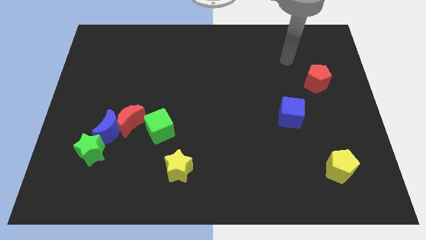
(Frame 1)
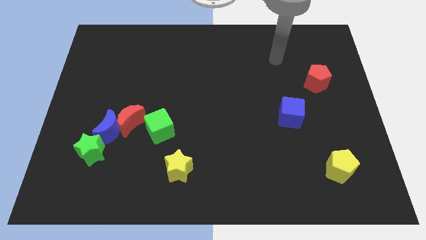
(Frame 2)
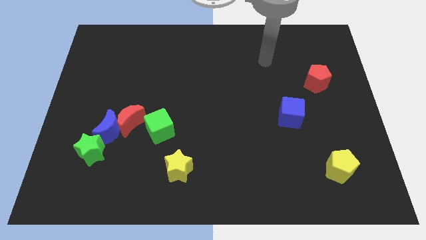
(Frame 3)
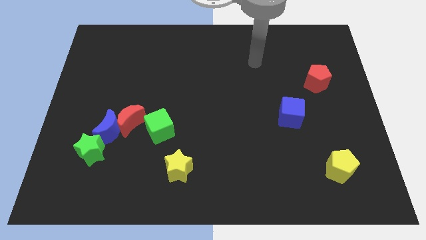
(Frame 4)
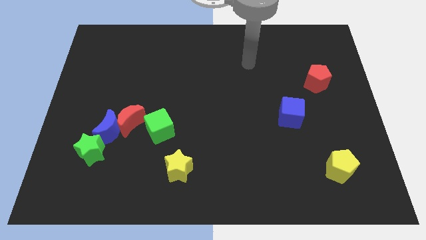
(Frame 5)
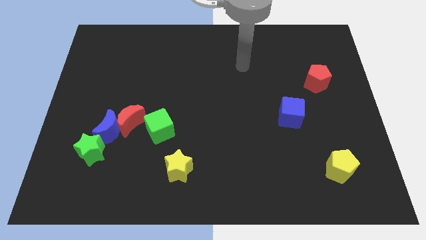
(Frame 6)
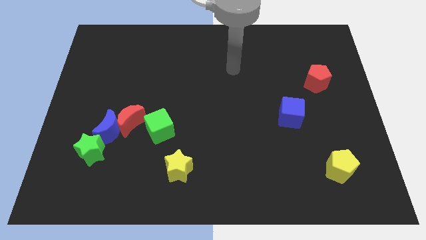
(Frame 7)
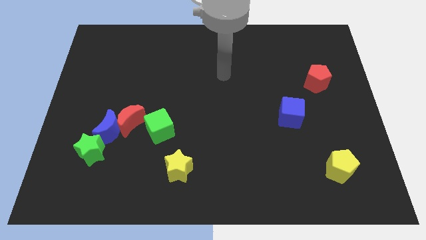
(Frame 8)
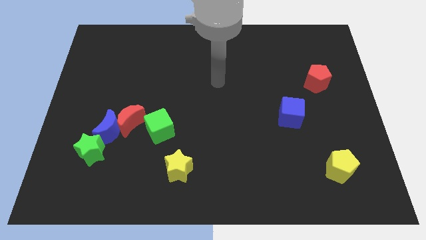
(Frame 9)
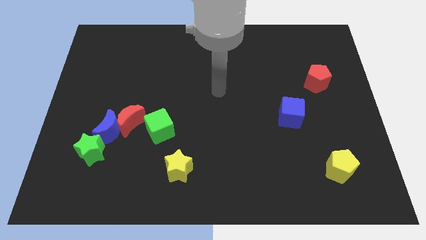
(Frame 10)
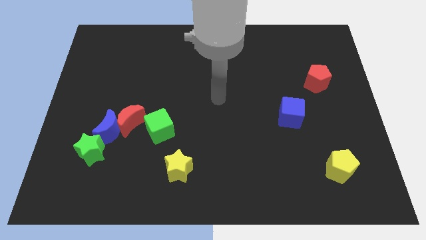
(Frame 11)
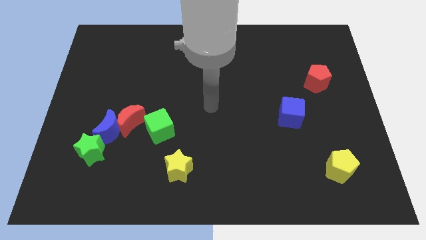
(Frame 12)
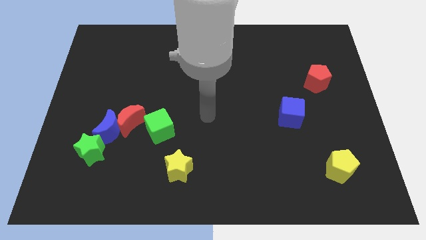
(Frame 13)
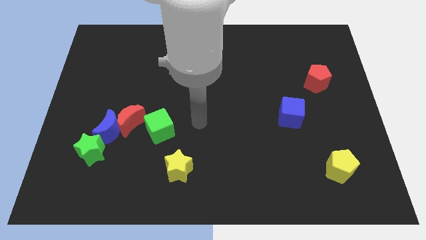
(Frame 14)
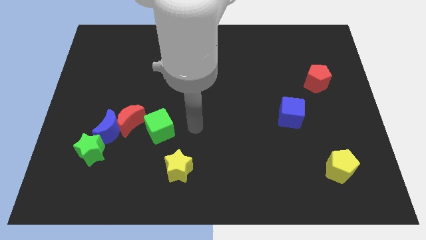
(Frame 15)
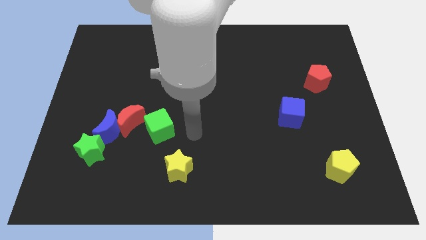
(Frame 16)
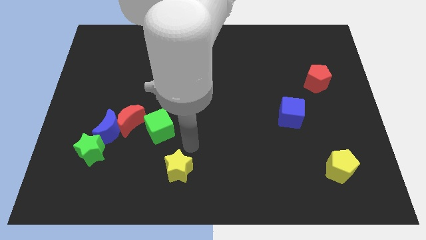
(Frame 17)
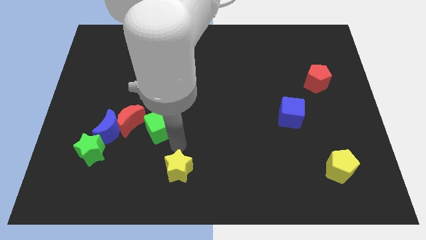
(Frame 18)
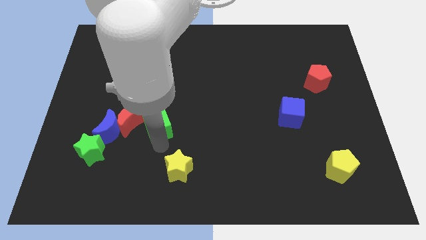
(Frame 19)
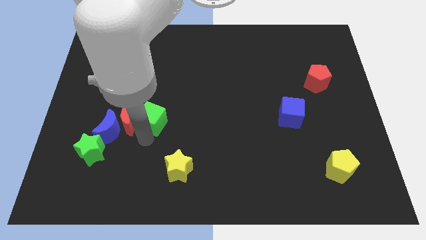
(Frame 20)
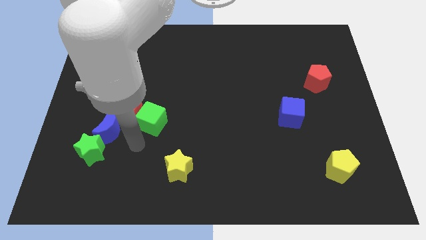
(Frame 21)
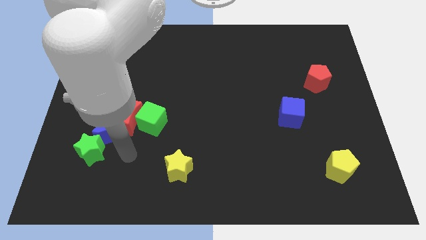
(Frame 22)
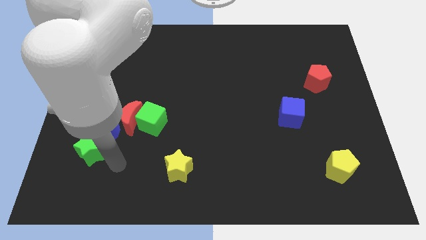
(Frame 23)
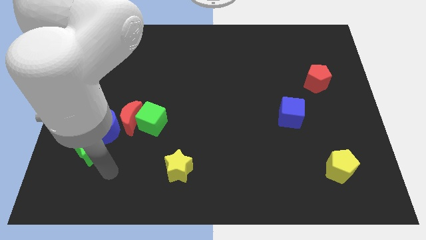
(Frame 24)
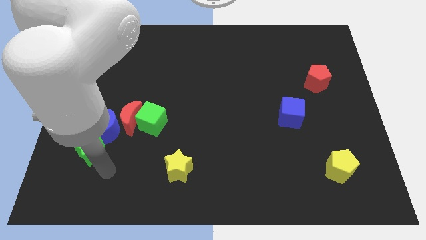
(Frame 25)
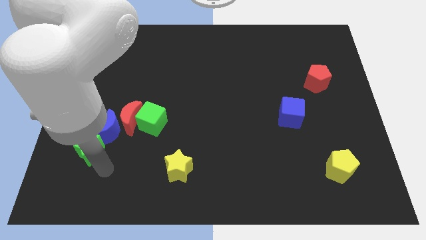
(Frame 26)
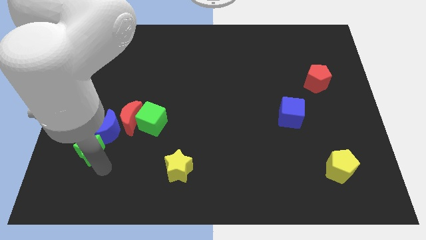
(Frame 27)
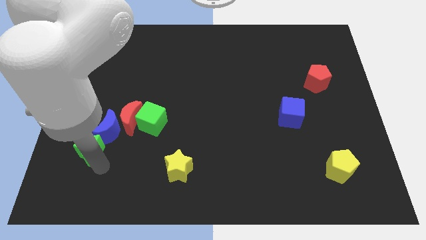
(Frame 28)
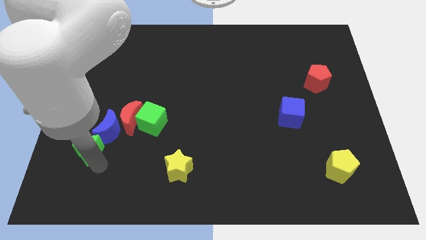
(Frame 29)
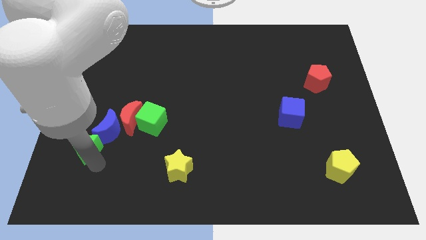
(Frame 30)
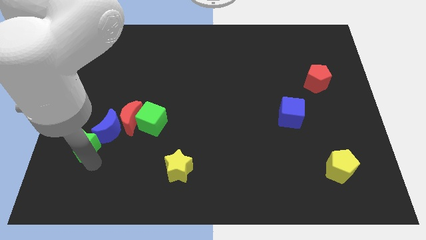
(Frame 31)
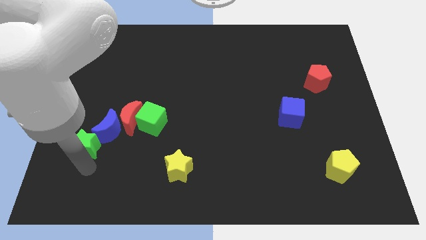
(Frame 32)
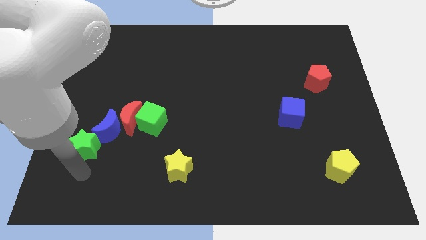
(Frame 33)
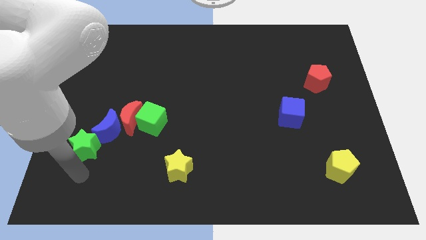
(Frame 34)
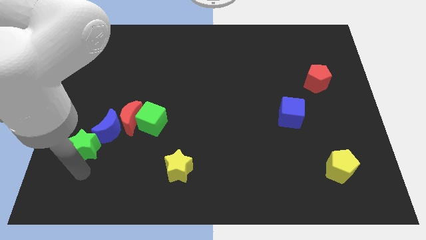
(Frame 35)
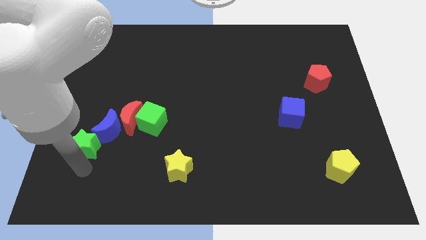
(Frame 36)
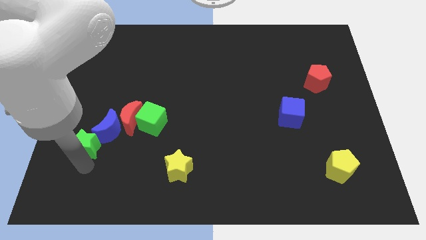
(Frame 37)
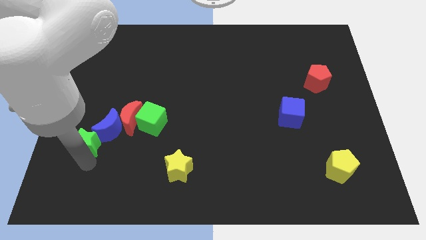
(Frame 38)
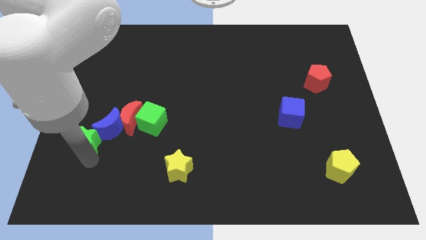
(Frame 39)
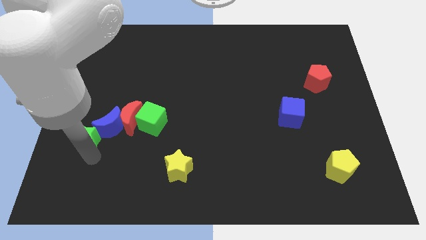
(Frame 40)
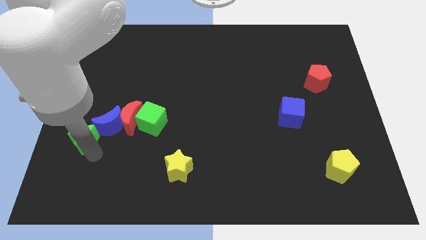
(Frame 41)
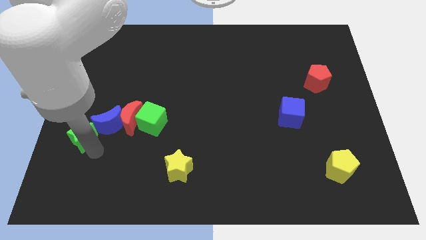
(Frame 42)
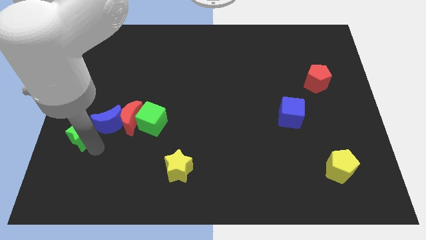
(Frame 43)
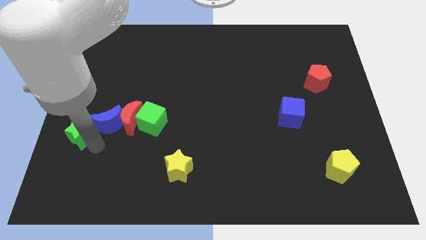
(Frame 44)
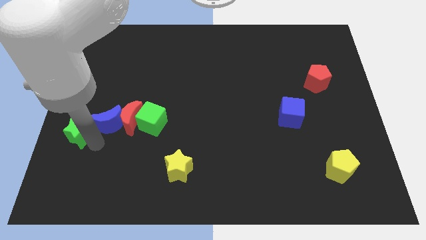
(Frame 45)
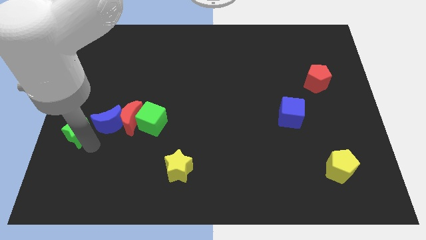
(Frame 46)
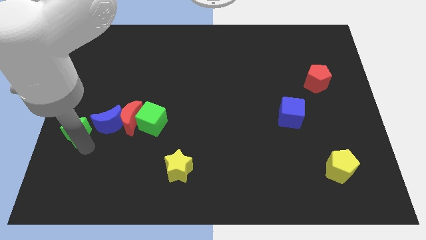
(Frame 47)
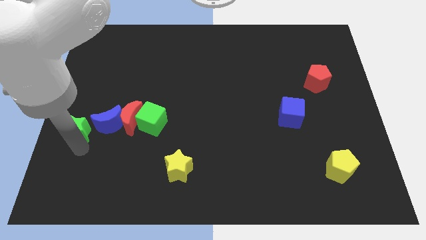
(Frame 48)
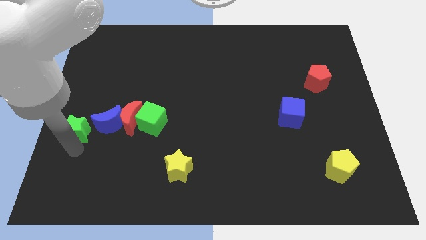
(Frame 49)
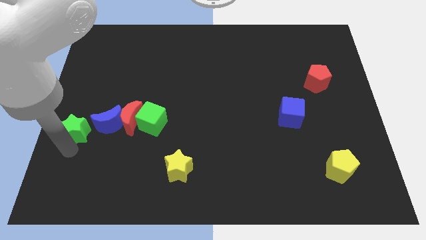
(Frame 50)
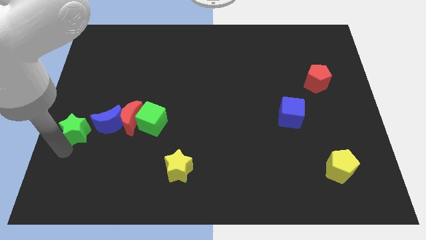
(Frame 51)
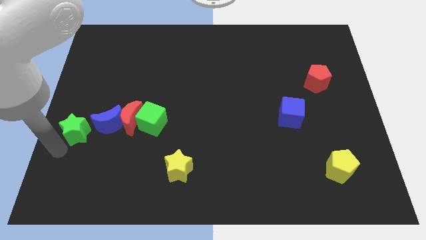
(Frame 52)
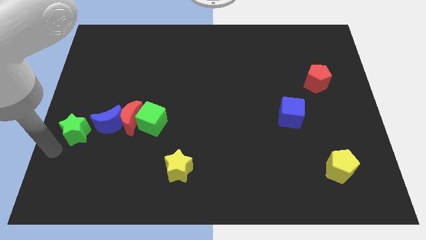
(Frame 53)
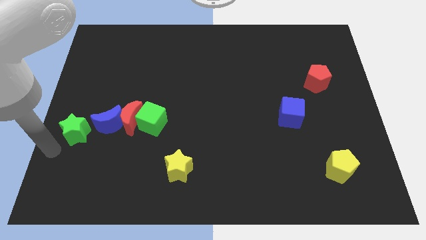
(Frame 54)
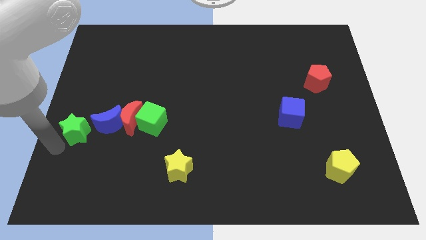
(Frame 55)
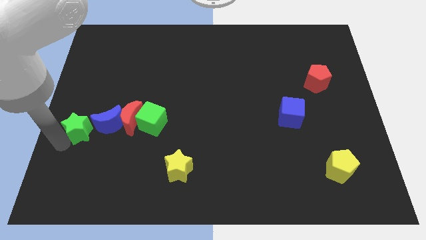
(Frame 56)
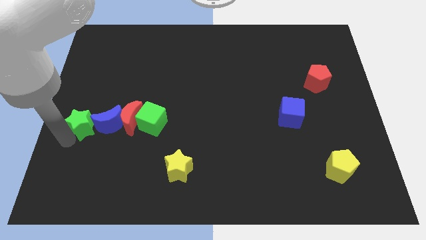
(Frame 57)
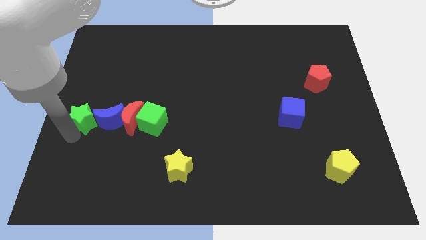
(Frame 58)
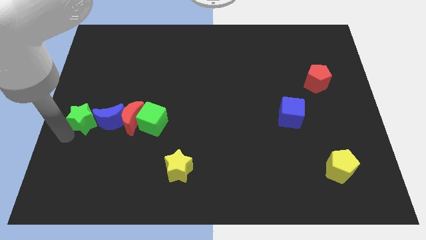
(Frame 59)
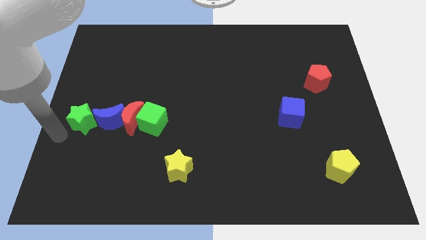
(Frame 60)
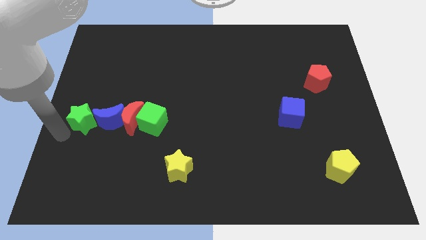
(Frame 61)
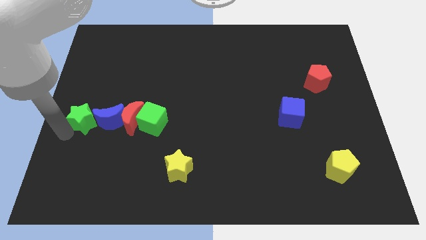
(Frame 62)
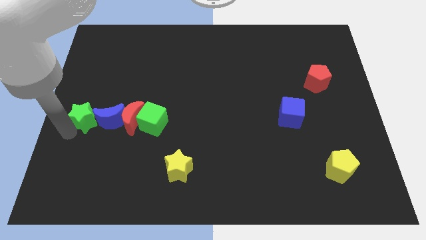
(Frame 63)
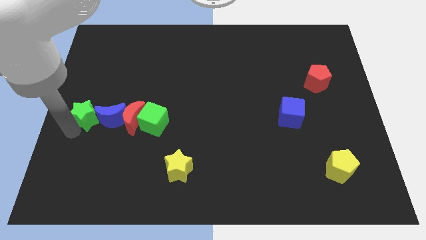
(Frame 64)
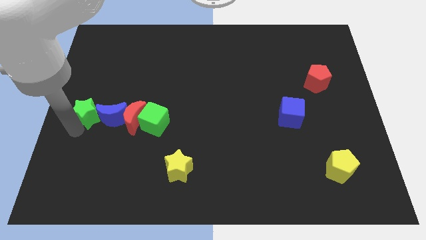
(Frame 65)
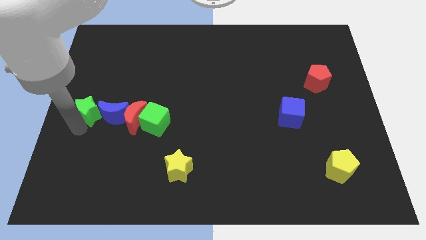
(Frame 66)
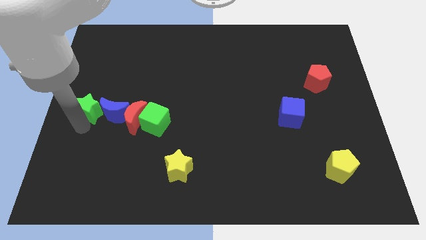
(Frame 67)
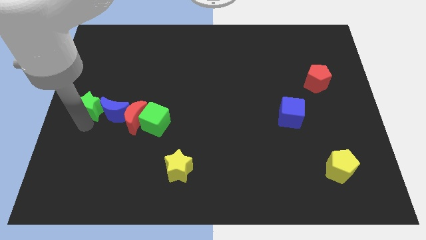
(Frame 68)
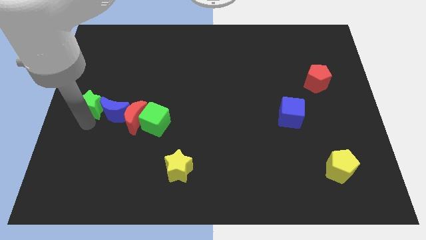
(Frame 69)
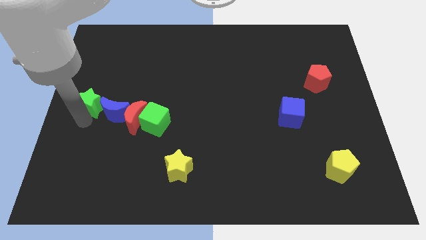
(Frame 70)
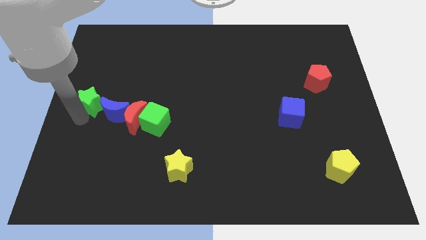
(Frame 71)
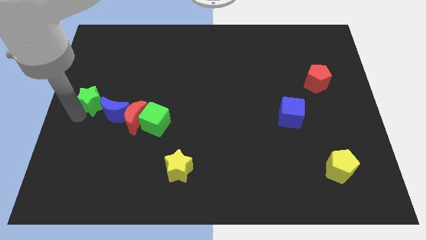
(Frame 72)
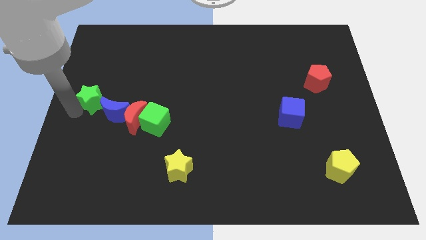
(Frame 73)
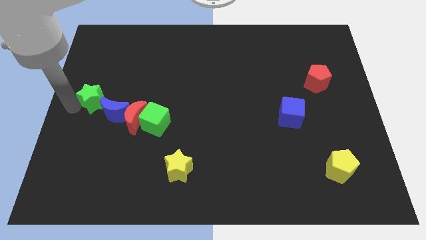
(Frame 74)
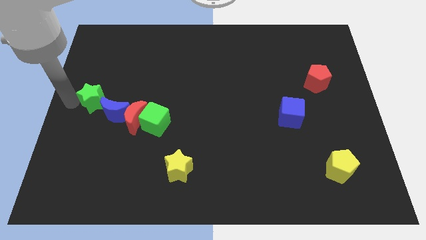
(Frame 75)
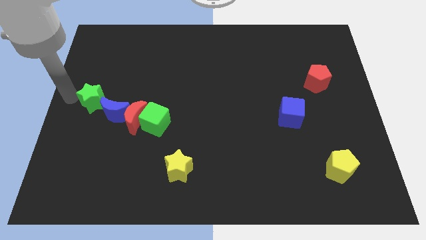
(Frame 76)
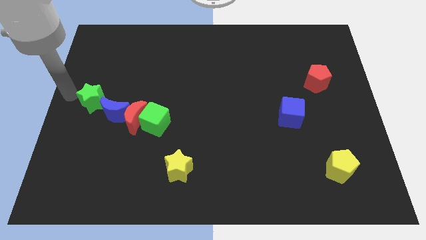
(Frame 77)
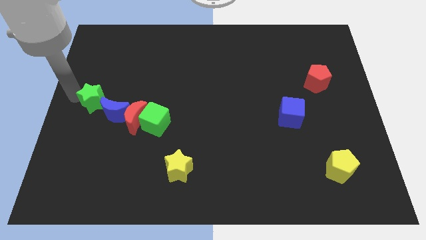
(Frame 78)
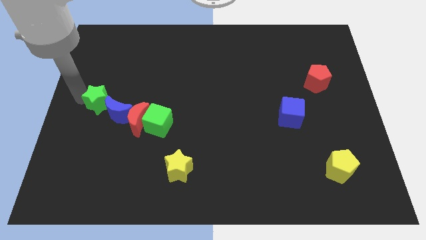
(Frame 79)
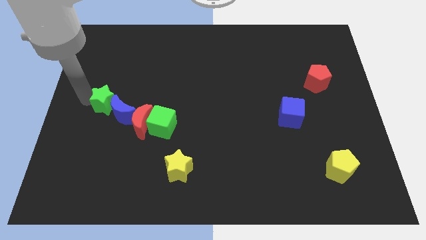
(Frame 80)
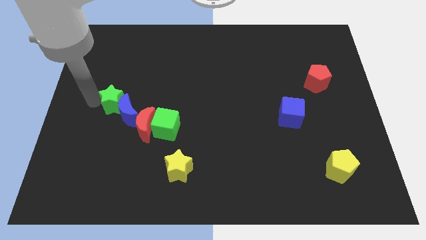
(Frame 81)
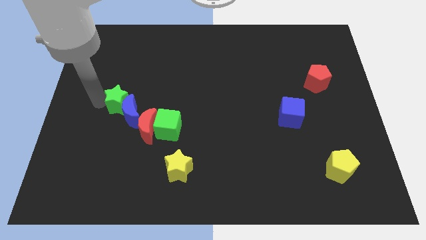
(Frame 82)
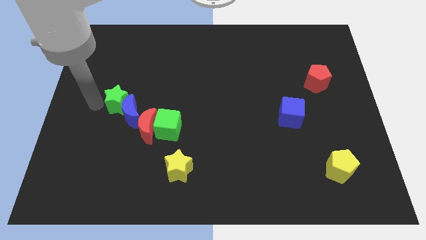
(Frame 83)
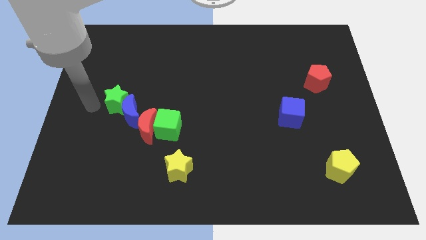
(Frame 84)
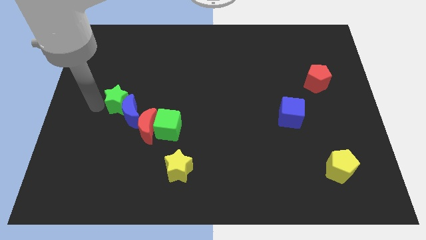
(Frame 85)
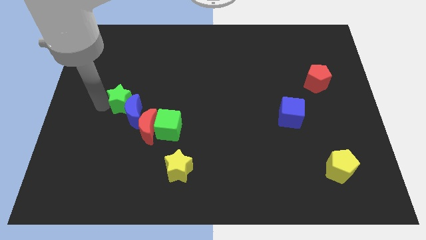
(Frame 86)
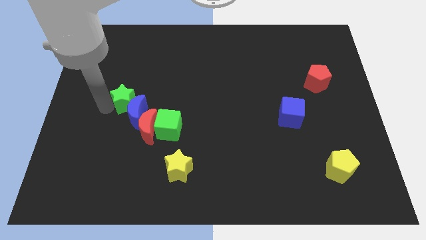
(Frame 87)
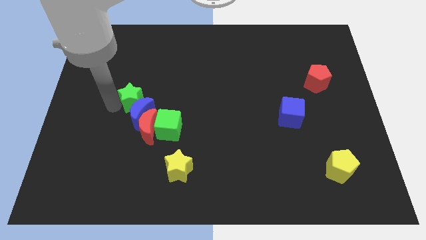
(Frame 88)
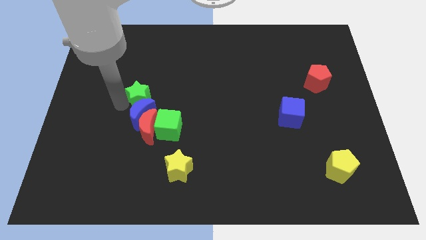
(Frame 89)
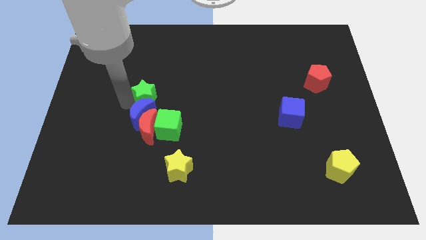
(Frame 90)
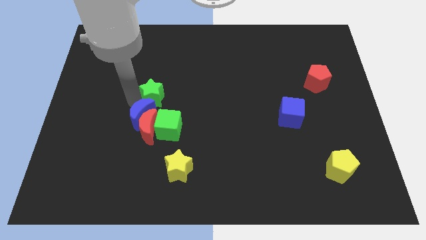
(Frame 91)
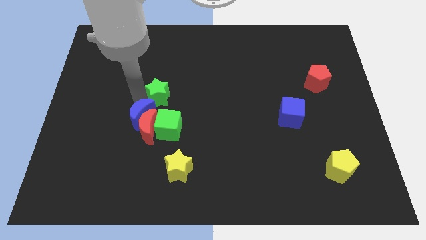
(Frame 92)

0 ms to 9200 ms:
move the green star diagonally upwards and right
